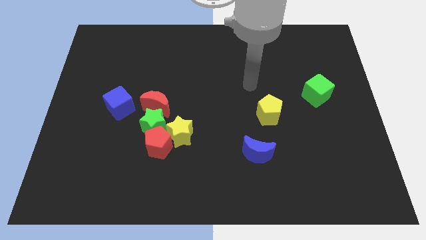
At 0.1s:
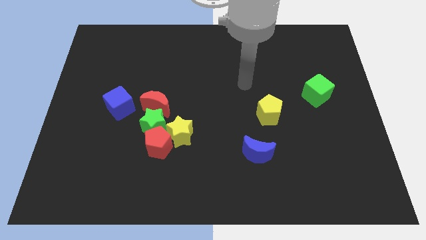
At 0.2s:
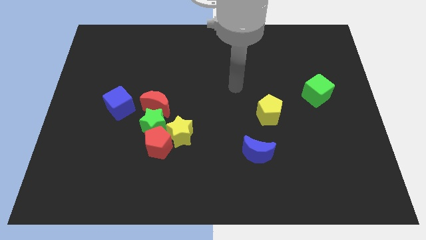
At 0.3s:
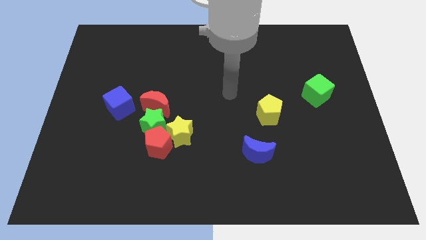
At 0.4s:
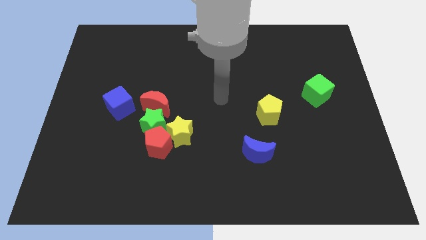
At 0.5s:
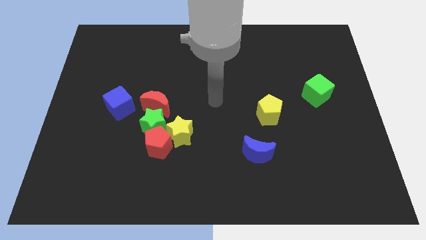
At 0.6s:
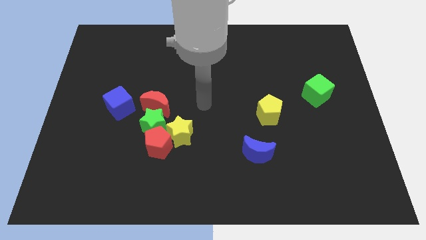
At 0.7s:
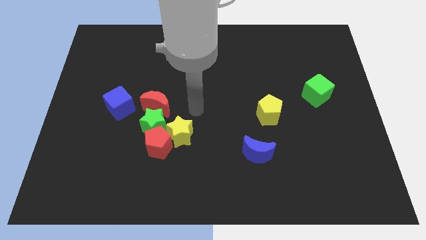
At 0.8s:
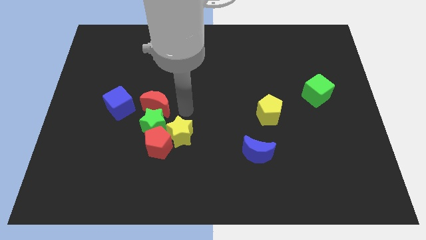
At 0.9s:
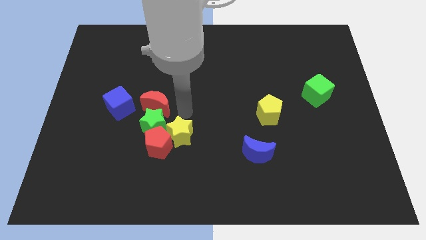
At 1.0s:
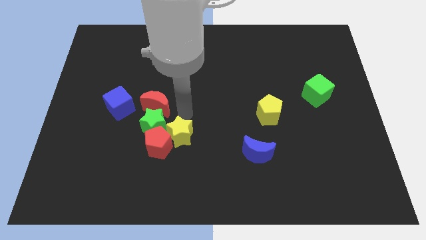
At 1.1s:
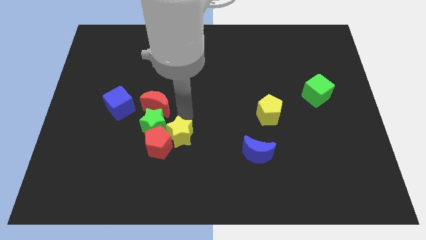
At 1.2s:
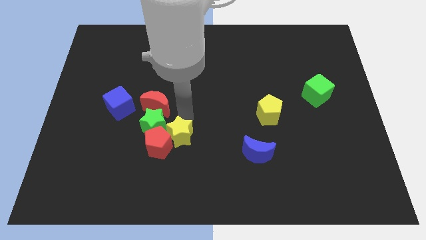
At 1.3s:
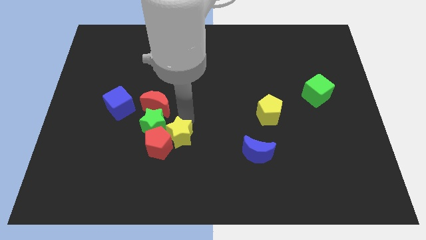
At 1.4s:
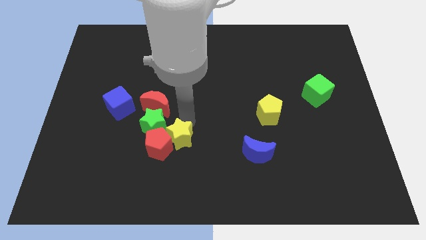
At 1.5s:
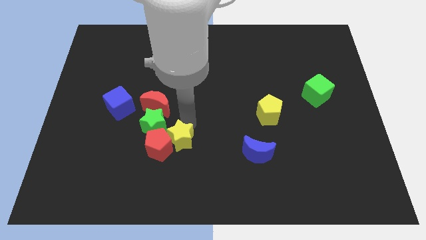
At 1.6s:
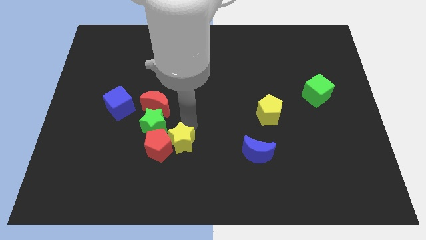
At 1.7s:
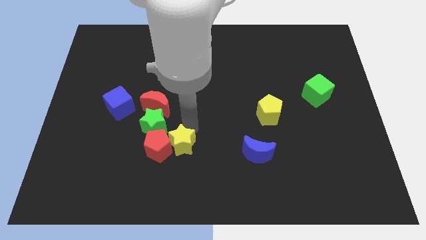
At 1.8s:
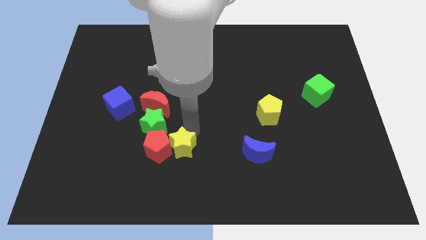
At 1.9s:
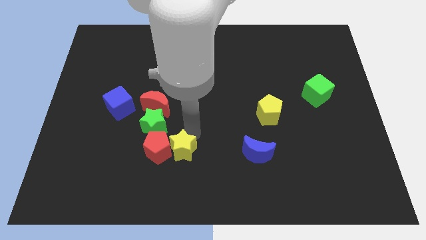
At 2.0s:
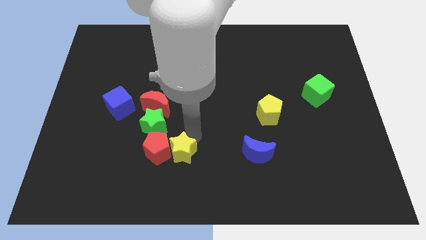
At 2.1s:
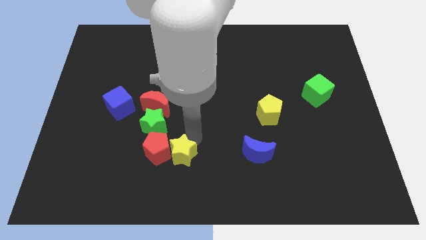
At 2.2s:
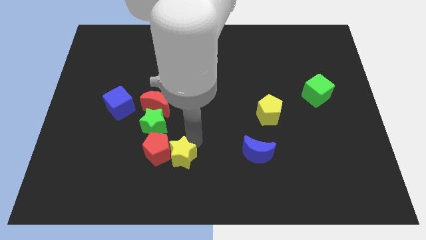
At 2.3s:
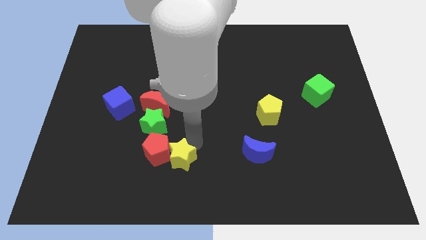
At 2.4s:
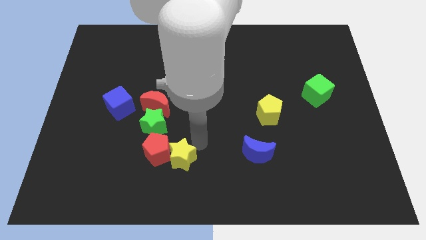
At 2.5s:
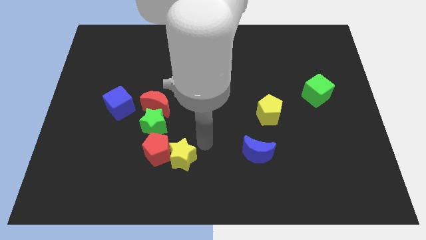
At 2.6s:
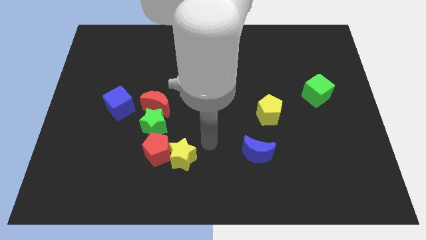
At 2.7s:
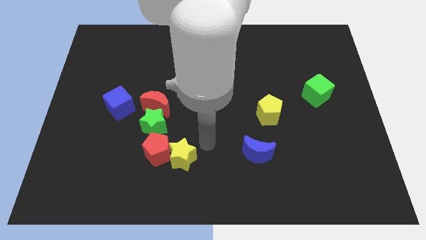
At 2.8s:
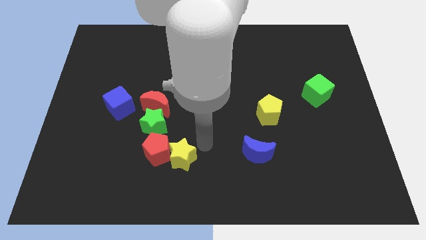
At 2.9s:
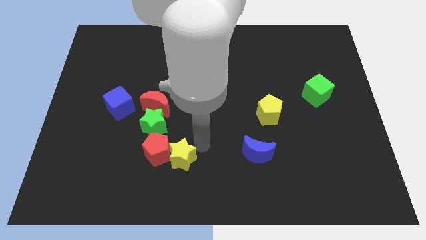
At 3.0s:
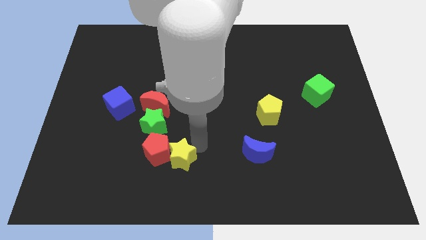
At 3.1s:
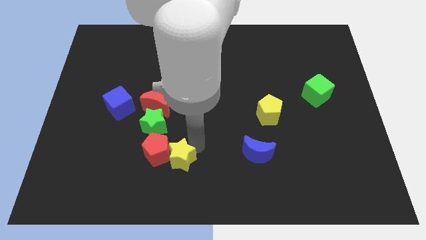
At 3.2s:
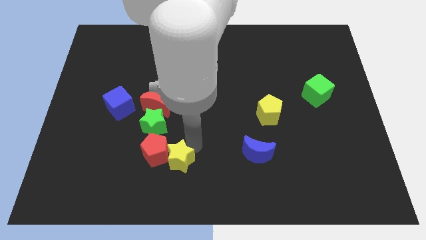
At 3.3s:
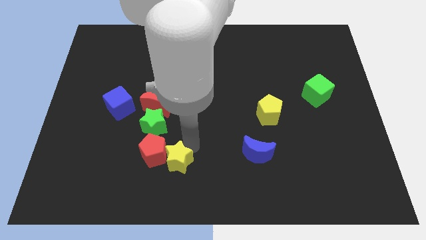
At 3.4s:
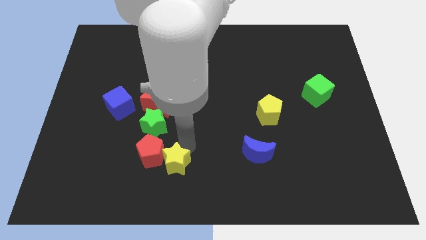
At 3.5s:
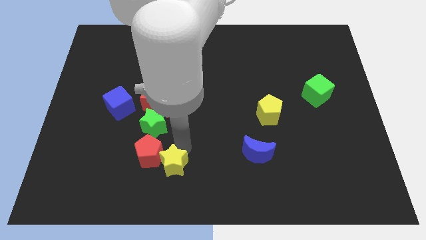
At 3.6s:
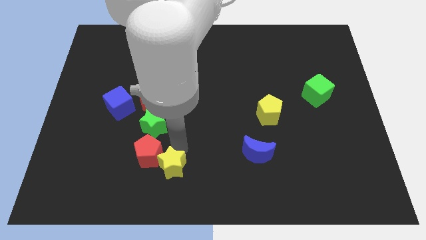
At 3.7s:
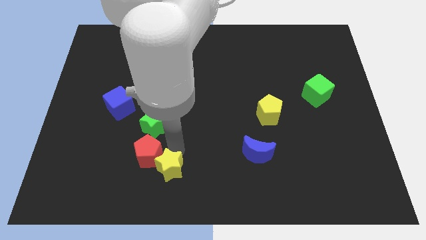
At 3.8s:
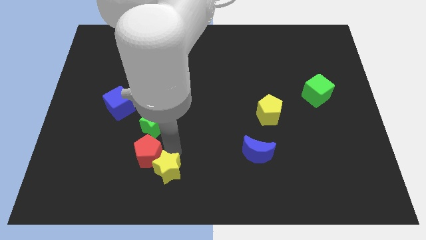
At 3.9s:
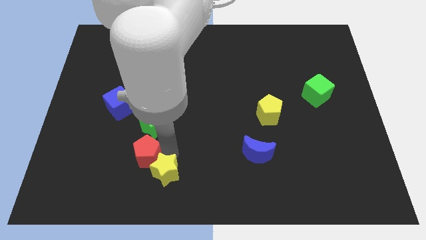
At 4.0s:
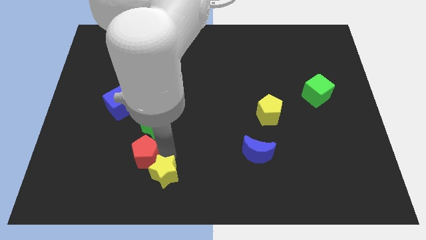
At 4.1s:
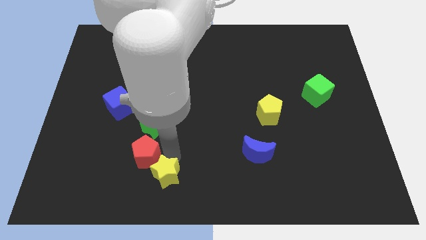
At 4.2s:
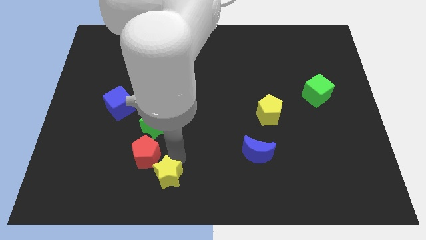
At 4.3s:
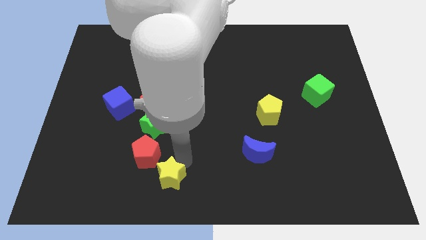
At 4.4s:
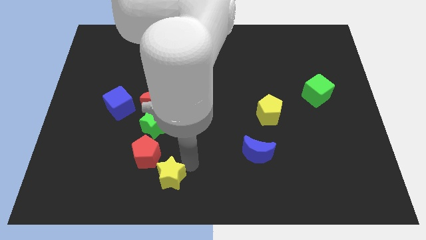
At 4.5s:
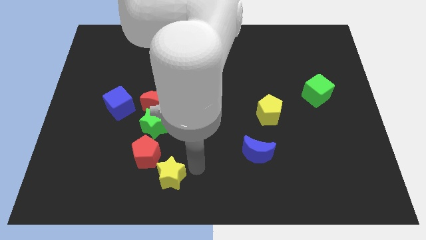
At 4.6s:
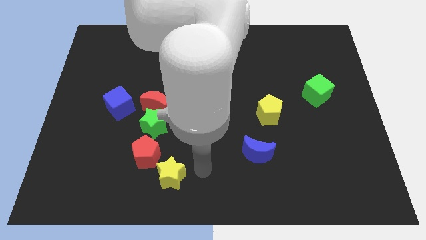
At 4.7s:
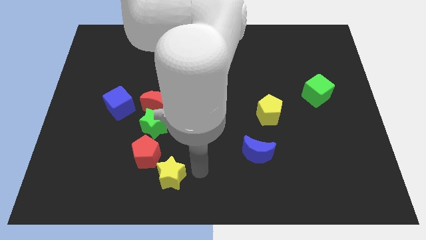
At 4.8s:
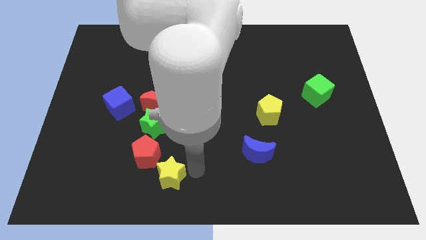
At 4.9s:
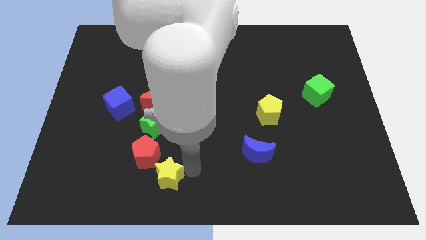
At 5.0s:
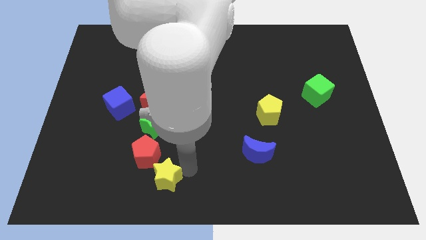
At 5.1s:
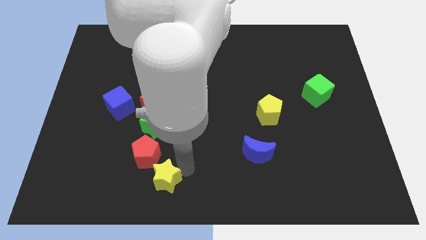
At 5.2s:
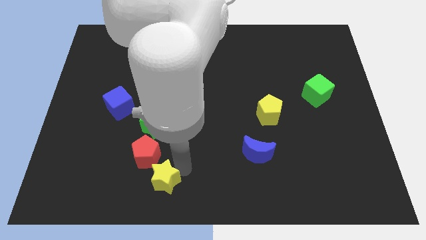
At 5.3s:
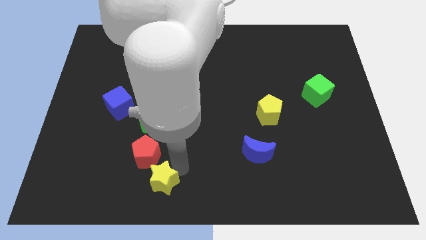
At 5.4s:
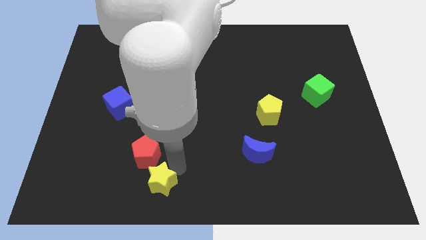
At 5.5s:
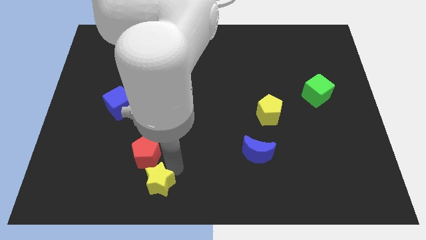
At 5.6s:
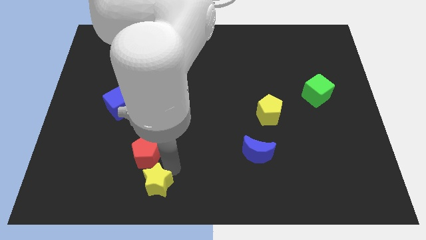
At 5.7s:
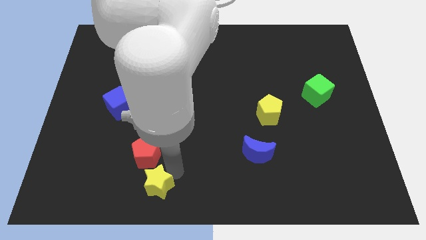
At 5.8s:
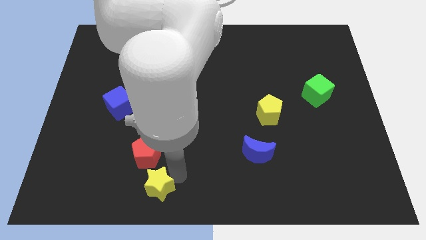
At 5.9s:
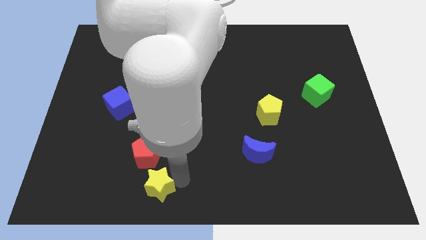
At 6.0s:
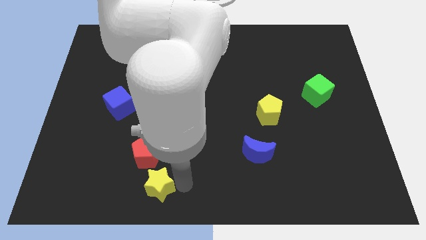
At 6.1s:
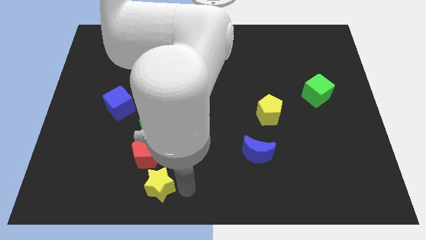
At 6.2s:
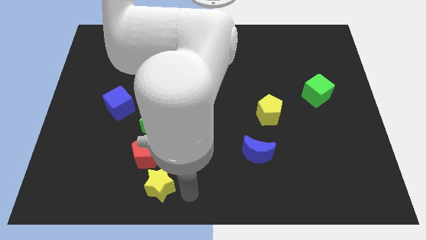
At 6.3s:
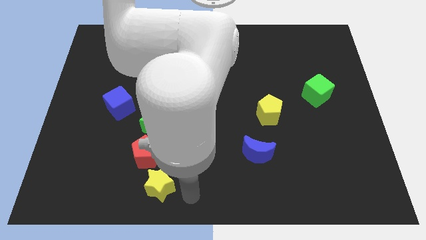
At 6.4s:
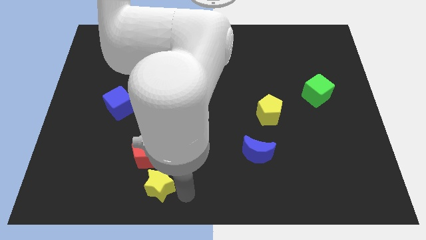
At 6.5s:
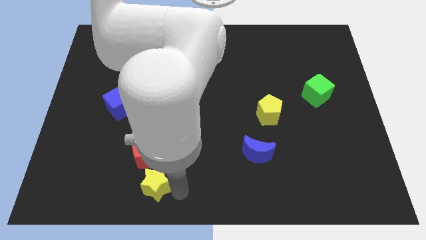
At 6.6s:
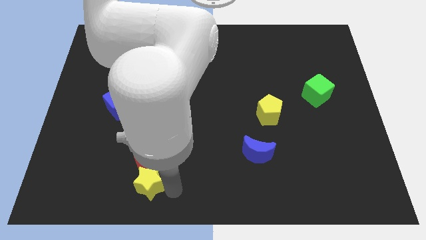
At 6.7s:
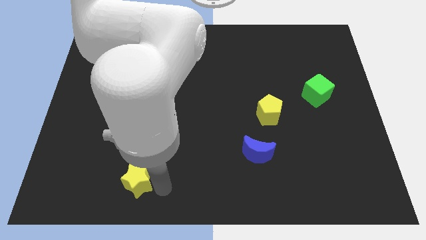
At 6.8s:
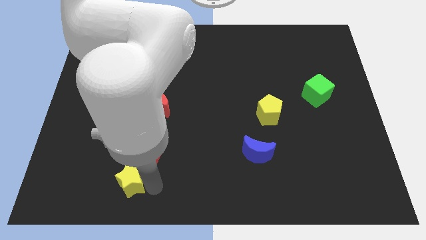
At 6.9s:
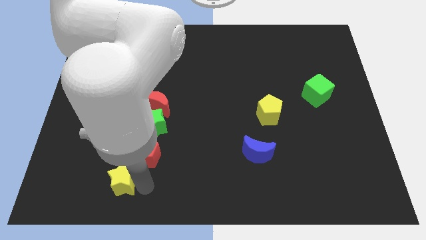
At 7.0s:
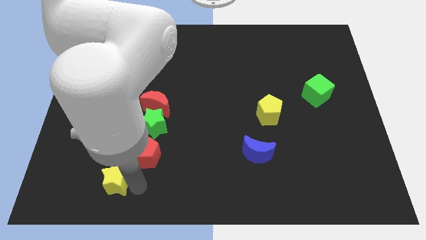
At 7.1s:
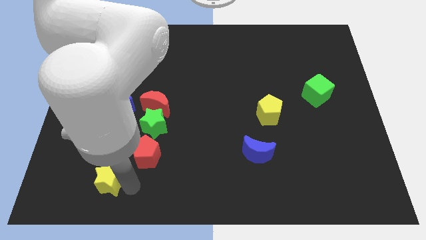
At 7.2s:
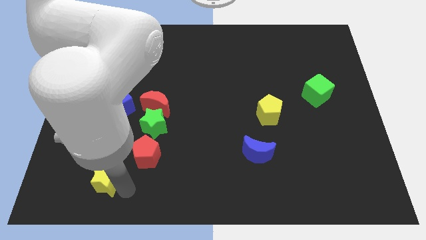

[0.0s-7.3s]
move the yellow star left a bit
